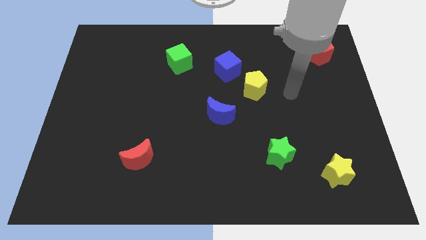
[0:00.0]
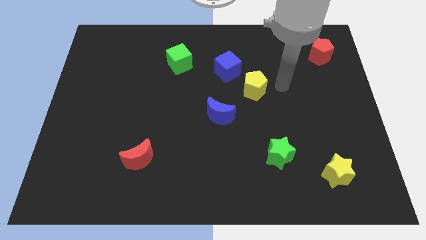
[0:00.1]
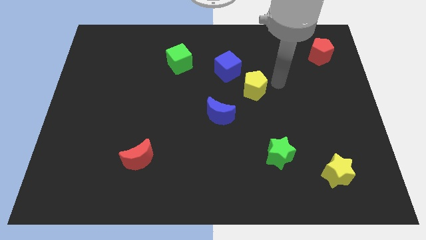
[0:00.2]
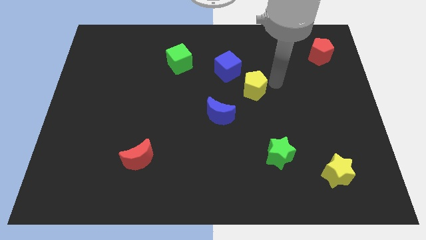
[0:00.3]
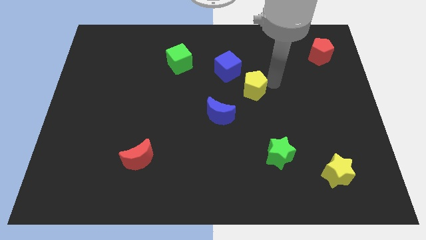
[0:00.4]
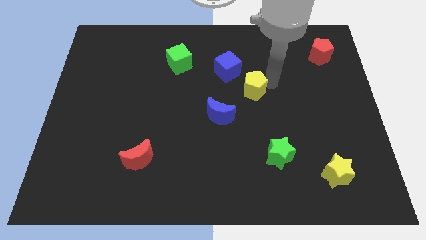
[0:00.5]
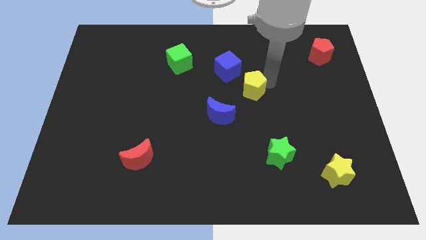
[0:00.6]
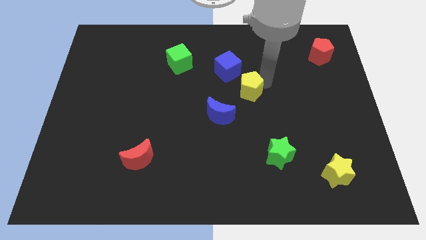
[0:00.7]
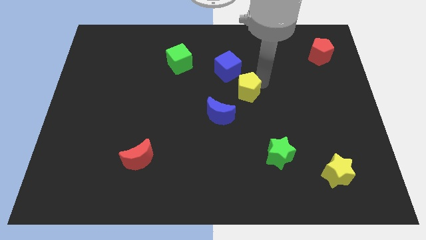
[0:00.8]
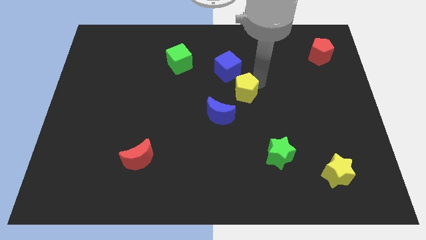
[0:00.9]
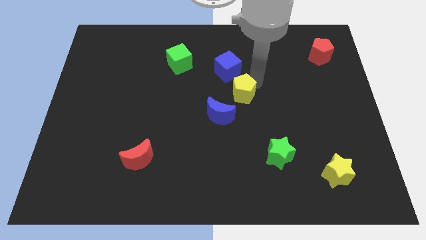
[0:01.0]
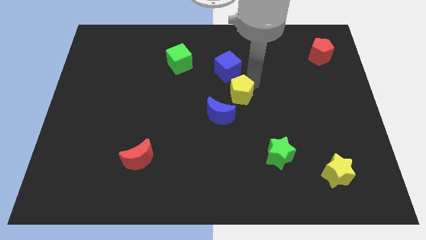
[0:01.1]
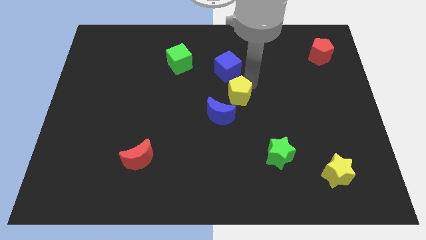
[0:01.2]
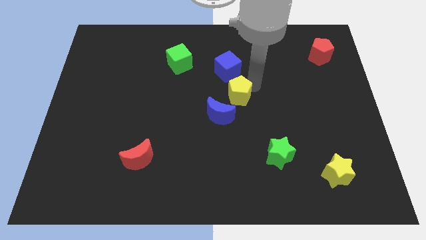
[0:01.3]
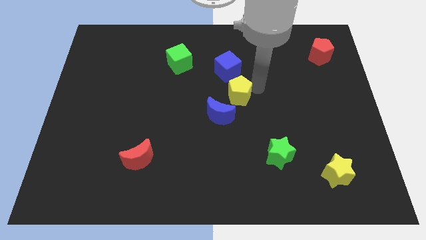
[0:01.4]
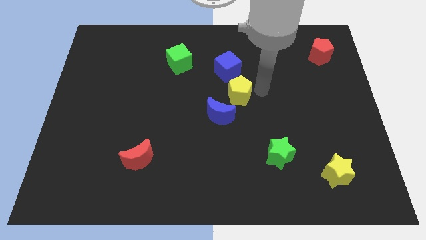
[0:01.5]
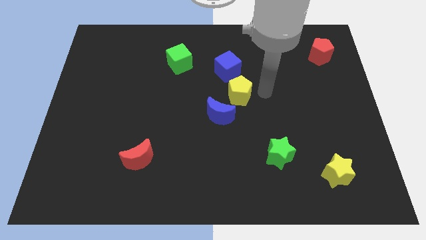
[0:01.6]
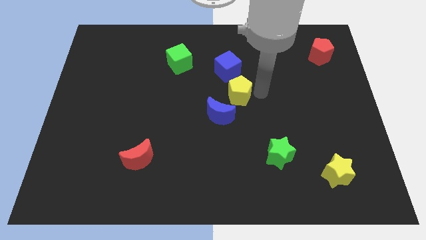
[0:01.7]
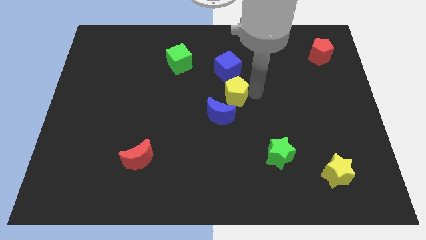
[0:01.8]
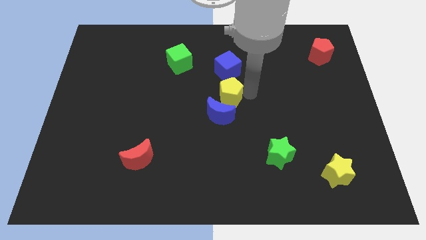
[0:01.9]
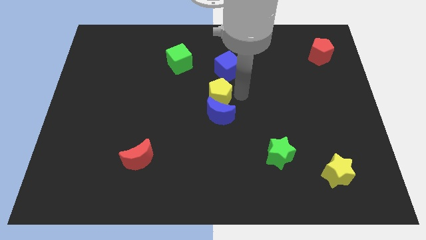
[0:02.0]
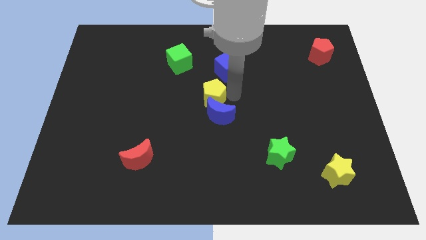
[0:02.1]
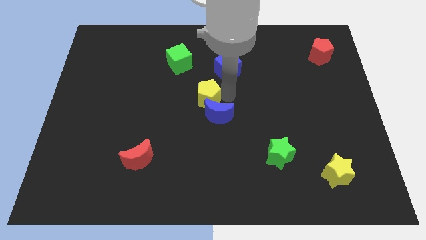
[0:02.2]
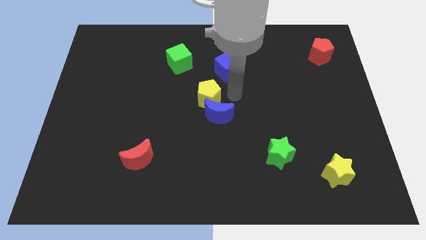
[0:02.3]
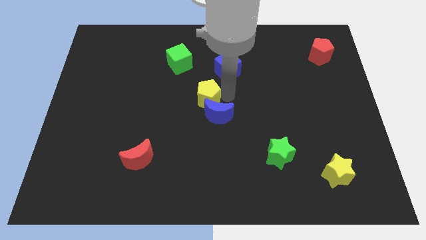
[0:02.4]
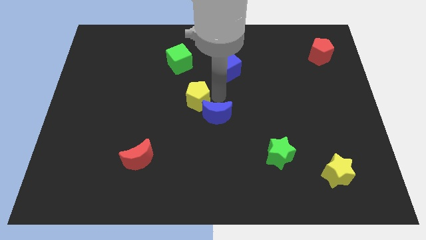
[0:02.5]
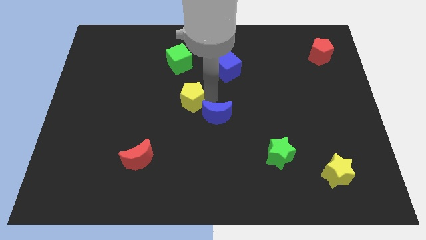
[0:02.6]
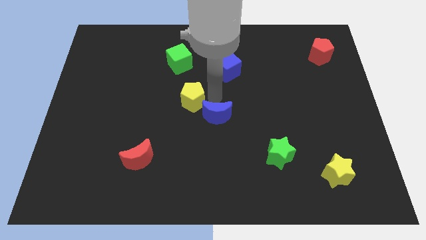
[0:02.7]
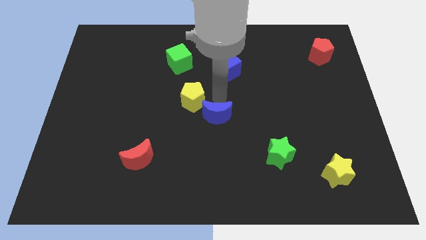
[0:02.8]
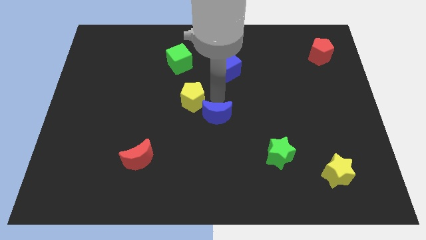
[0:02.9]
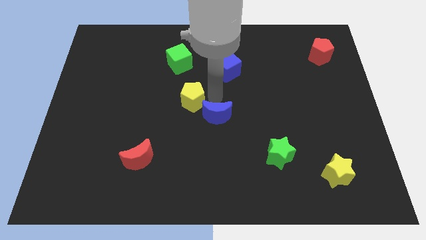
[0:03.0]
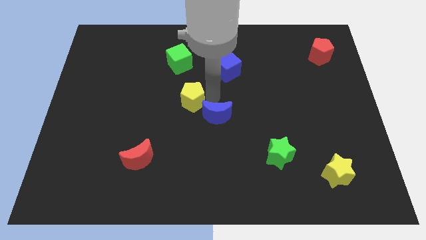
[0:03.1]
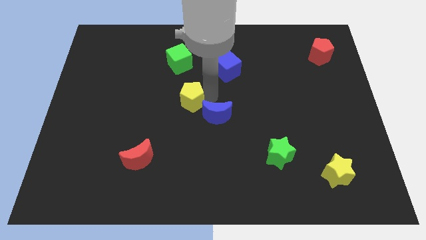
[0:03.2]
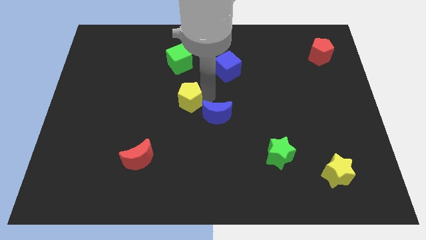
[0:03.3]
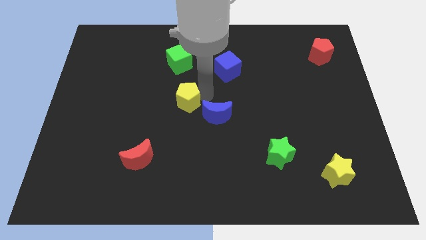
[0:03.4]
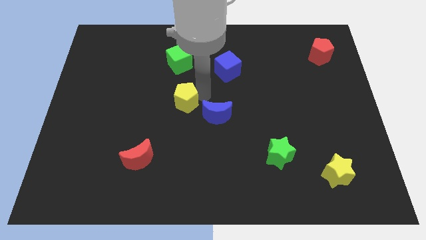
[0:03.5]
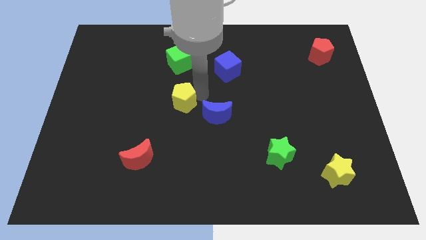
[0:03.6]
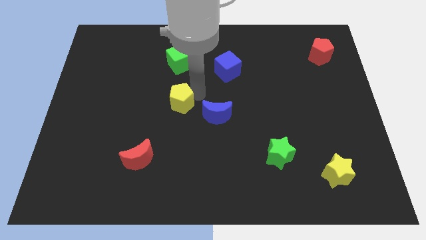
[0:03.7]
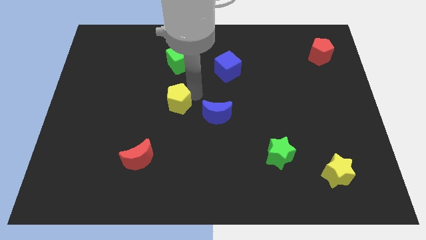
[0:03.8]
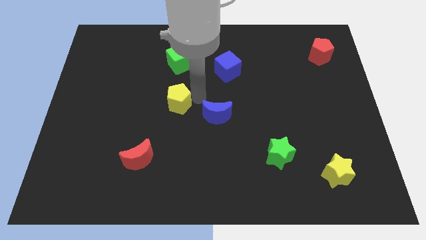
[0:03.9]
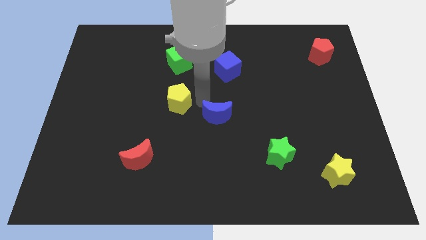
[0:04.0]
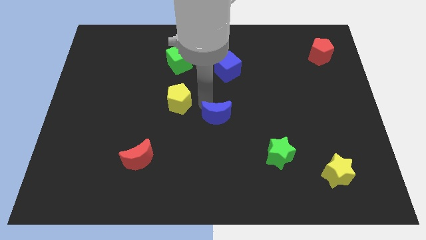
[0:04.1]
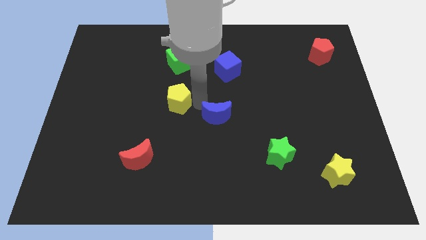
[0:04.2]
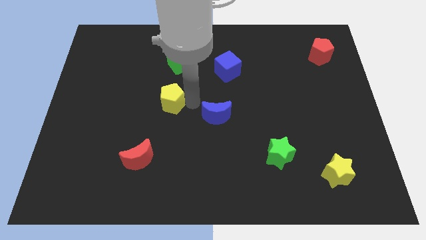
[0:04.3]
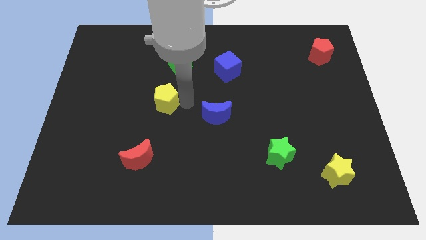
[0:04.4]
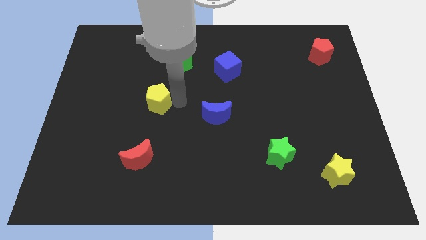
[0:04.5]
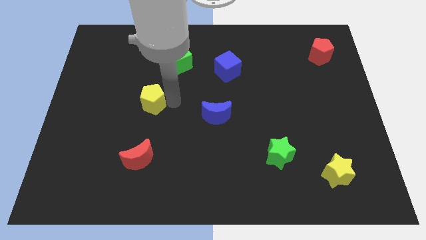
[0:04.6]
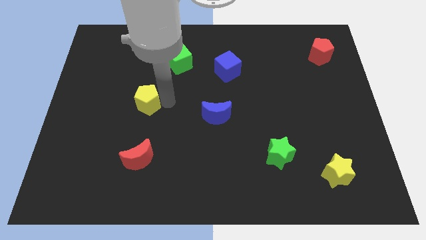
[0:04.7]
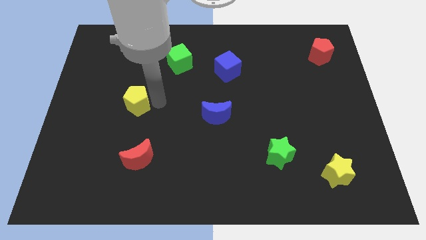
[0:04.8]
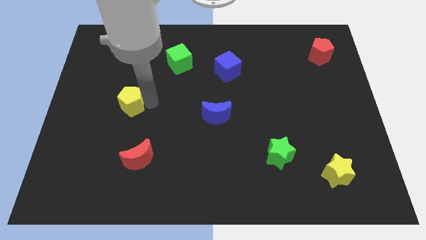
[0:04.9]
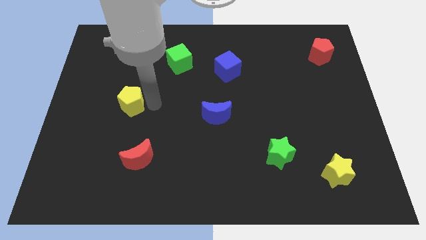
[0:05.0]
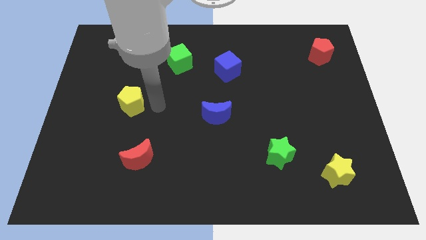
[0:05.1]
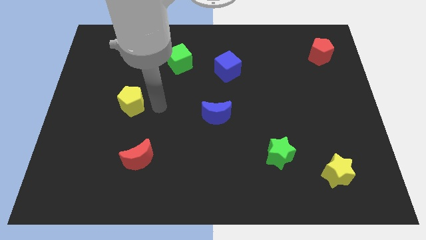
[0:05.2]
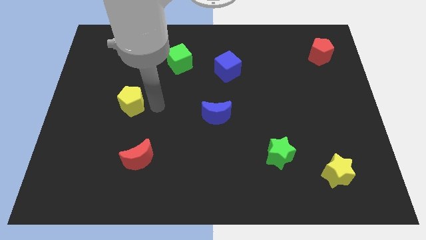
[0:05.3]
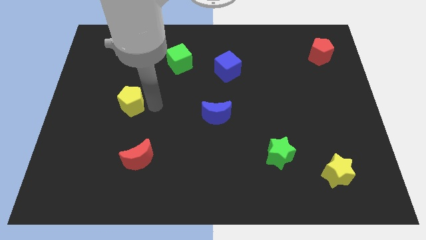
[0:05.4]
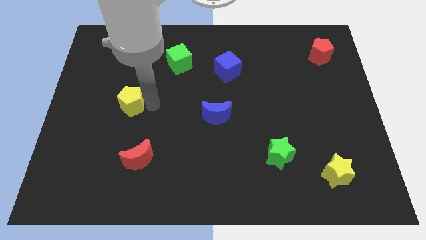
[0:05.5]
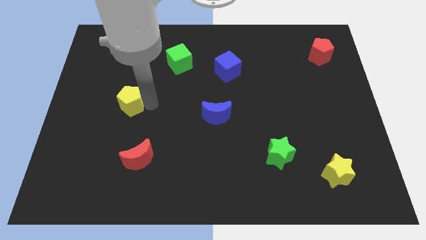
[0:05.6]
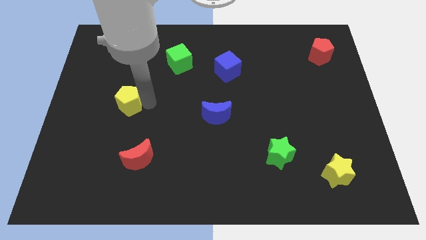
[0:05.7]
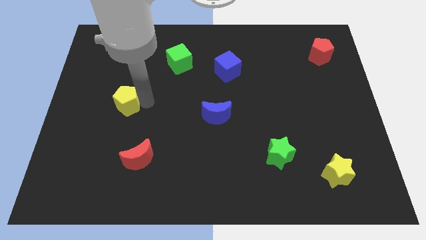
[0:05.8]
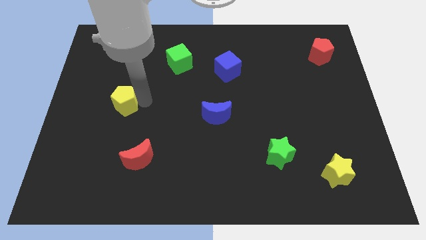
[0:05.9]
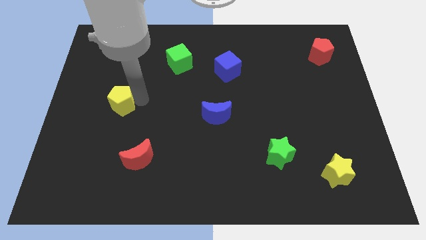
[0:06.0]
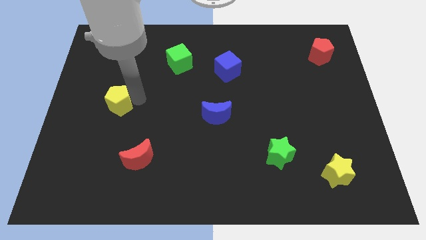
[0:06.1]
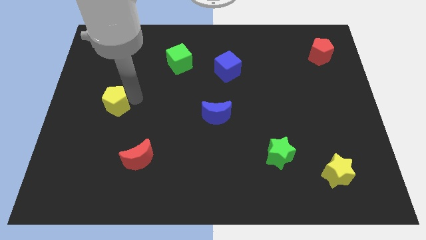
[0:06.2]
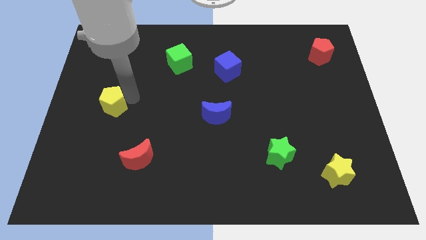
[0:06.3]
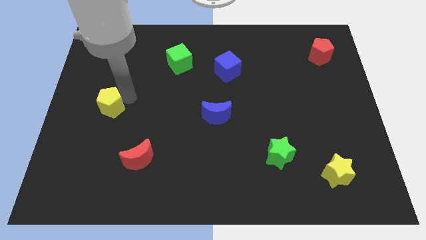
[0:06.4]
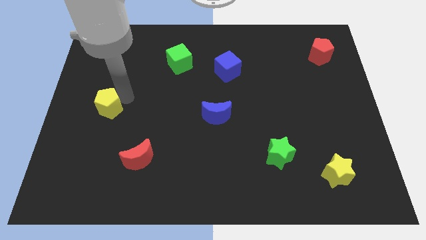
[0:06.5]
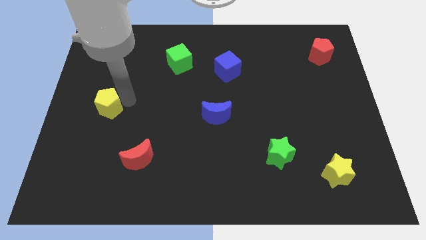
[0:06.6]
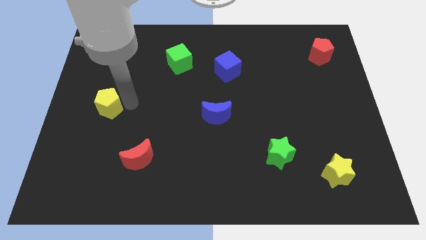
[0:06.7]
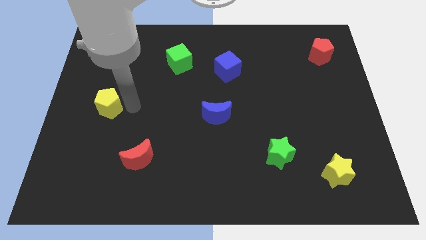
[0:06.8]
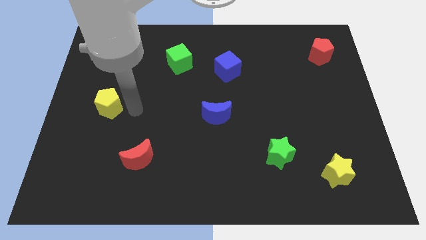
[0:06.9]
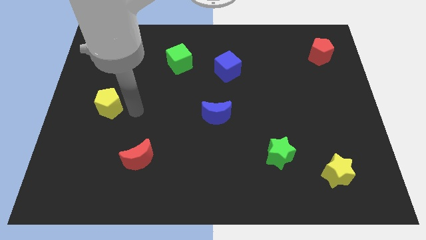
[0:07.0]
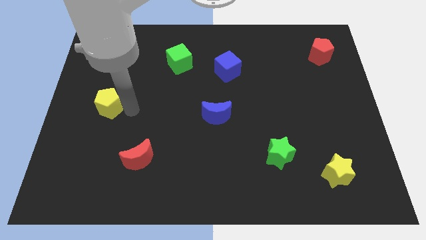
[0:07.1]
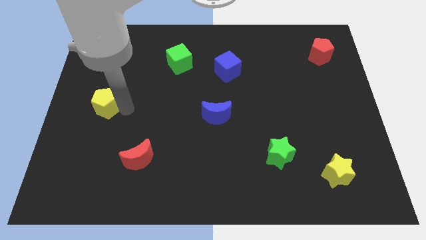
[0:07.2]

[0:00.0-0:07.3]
slide the yellow pentagon to the center left
